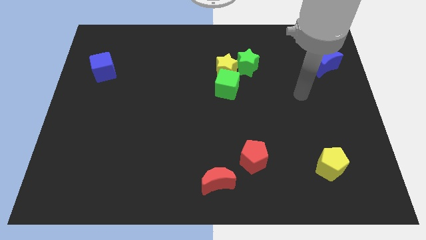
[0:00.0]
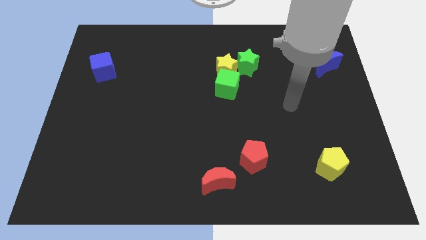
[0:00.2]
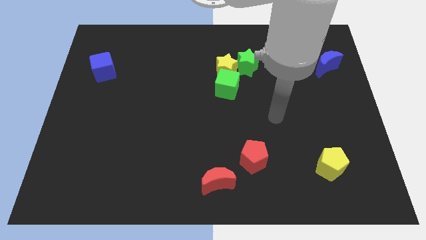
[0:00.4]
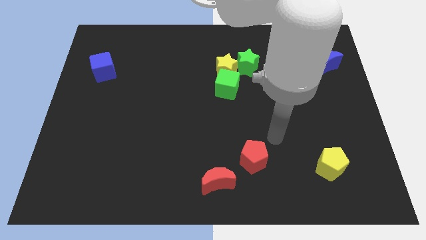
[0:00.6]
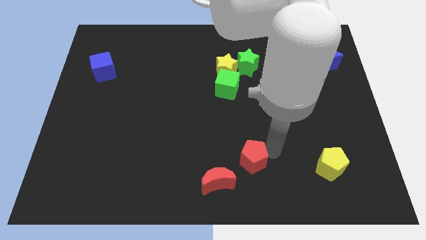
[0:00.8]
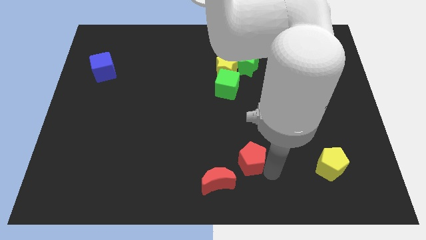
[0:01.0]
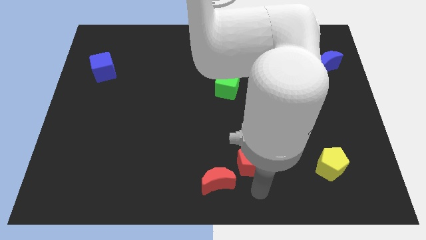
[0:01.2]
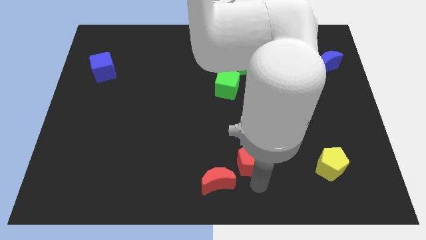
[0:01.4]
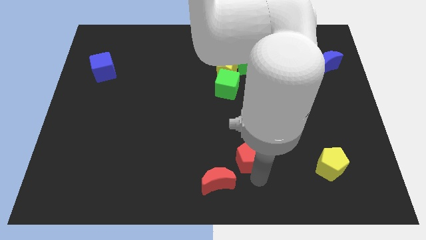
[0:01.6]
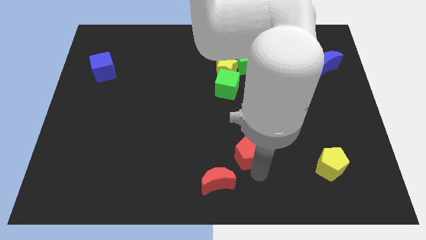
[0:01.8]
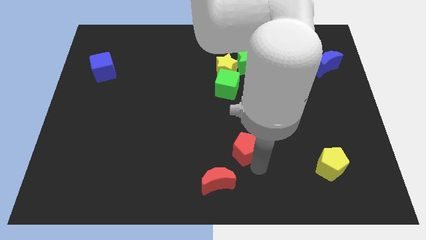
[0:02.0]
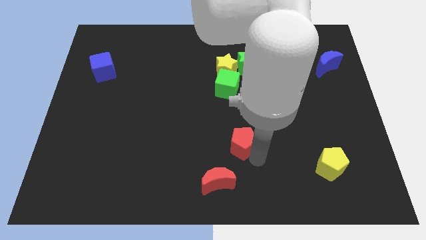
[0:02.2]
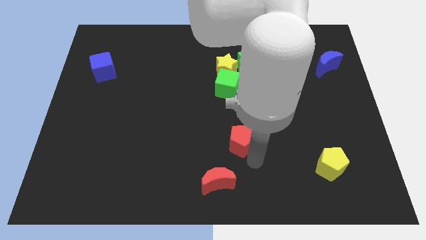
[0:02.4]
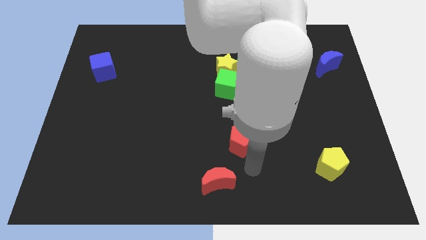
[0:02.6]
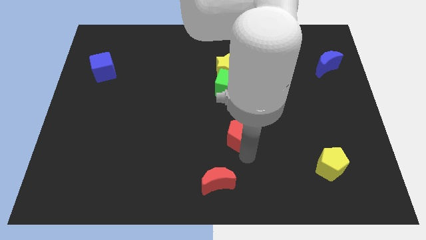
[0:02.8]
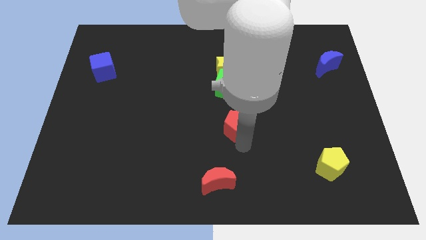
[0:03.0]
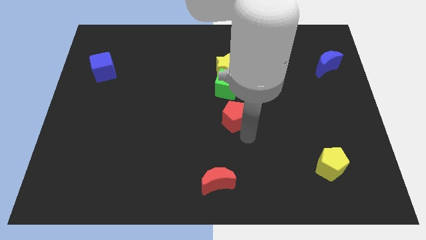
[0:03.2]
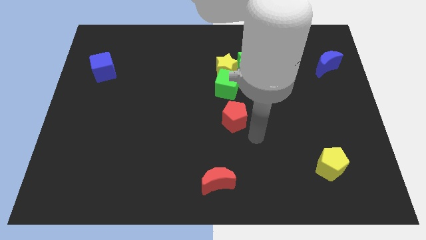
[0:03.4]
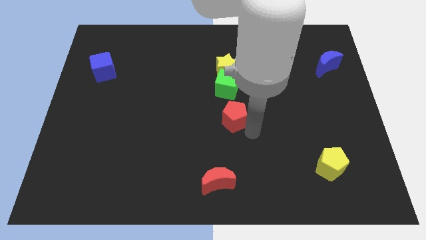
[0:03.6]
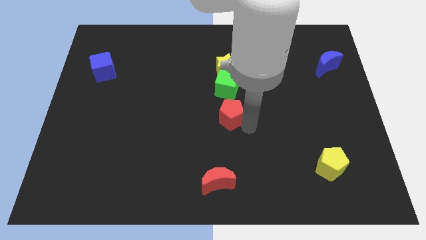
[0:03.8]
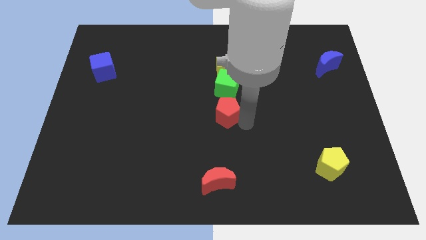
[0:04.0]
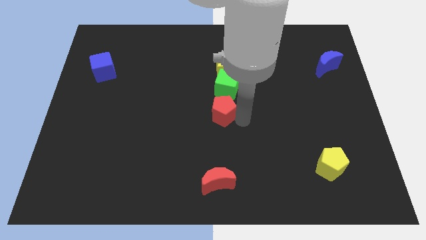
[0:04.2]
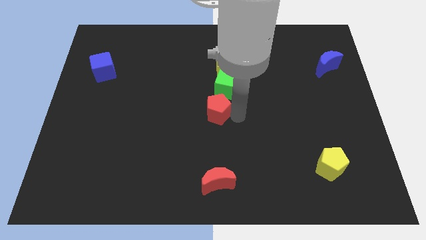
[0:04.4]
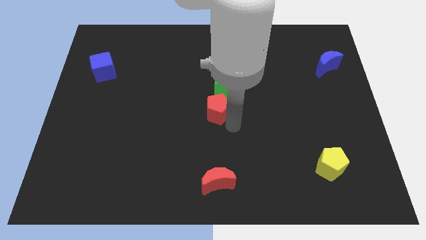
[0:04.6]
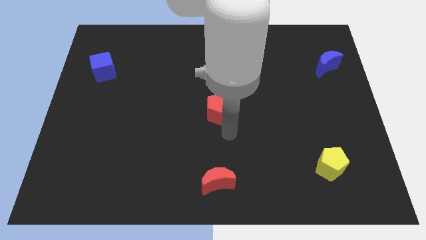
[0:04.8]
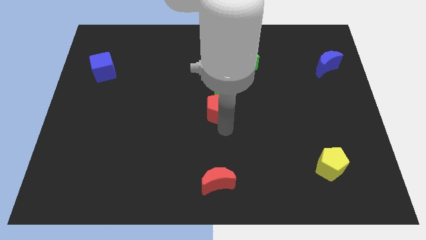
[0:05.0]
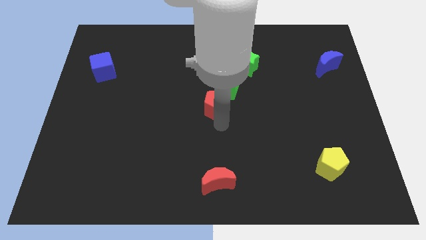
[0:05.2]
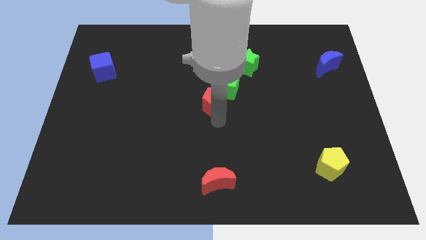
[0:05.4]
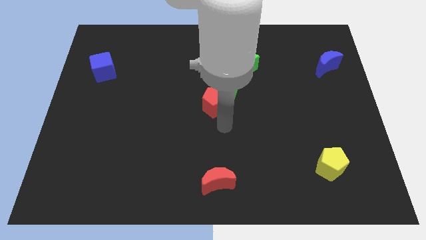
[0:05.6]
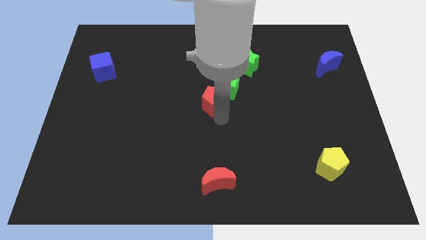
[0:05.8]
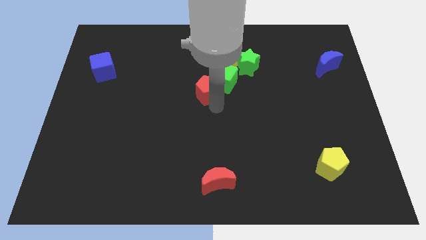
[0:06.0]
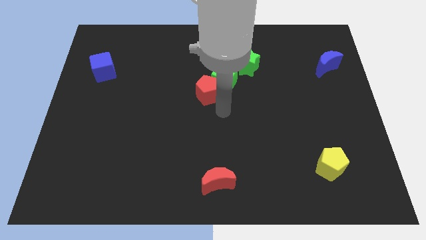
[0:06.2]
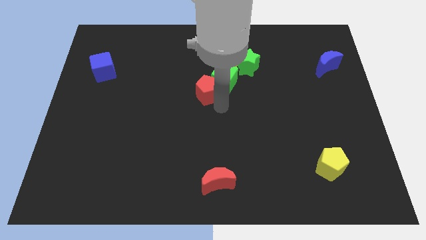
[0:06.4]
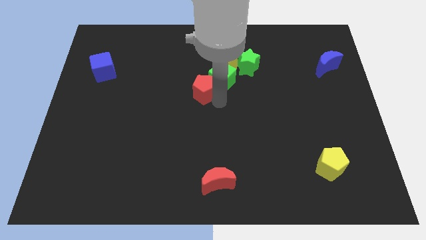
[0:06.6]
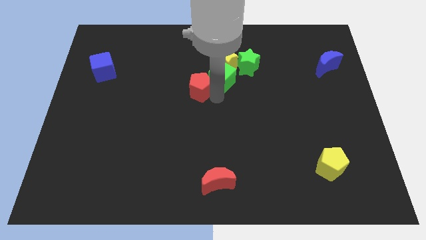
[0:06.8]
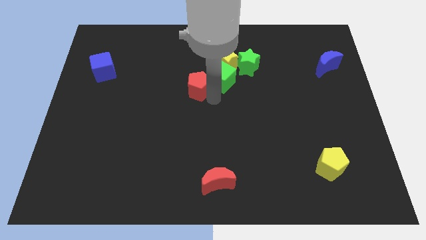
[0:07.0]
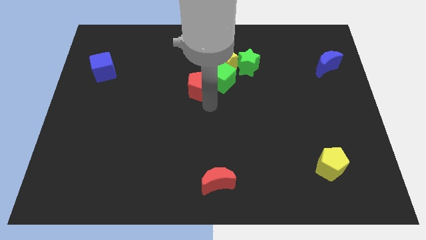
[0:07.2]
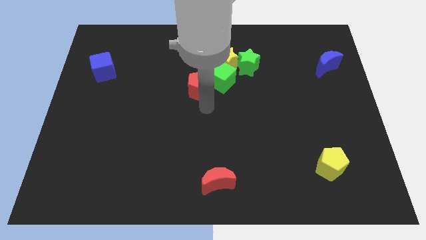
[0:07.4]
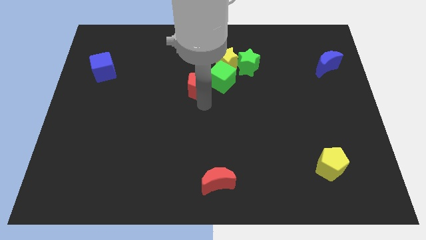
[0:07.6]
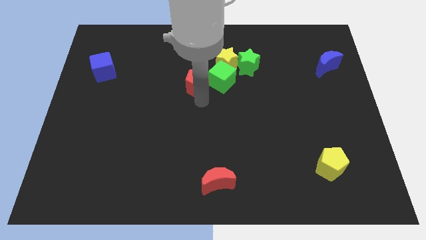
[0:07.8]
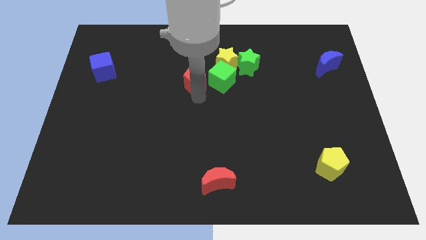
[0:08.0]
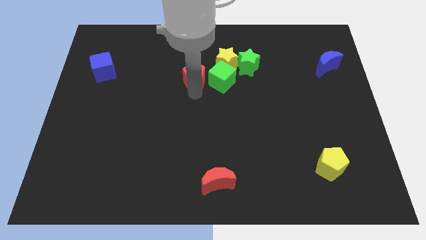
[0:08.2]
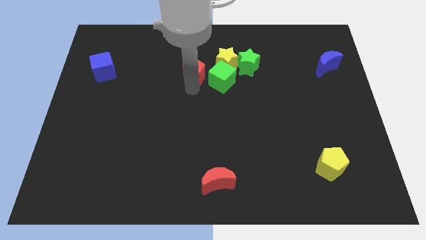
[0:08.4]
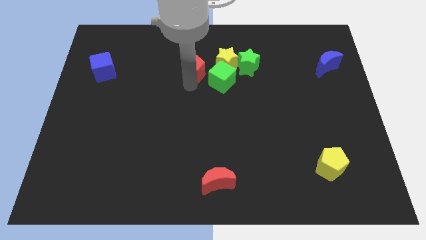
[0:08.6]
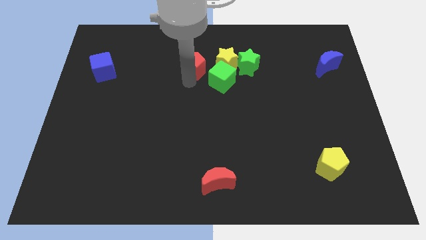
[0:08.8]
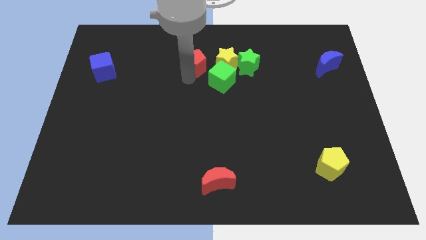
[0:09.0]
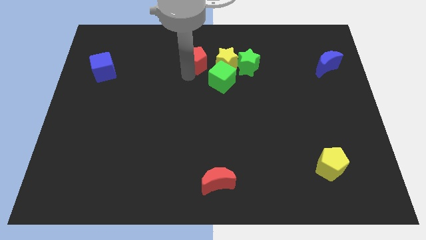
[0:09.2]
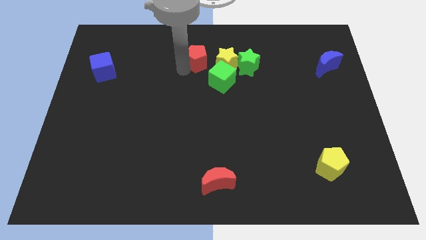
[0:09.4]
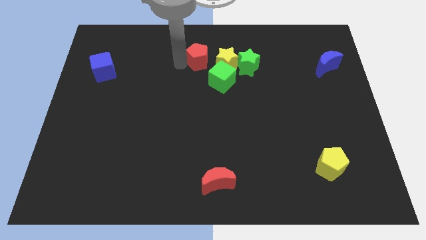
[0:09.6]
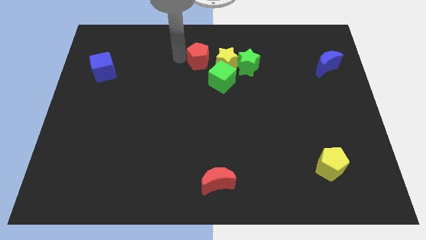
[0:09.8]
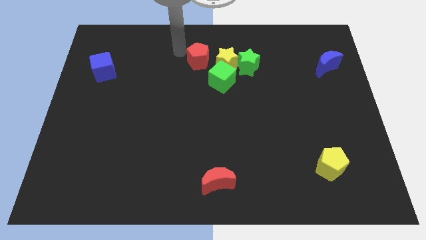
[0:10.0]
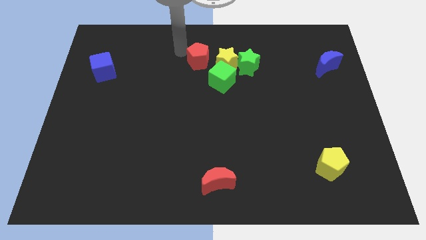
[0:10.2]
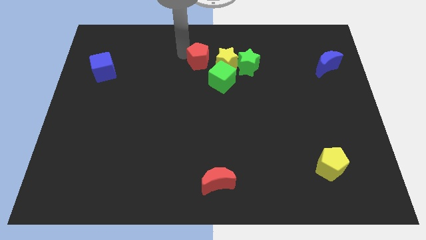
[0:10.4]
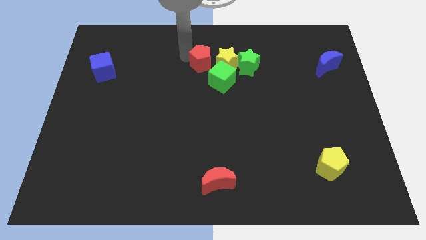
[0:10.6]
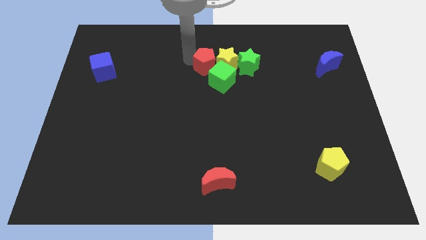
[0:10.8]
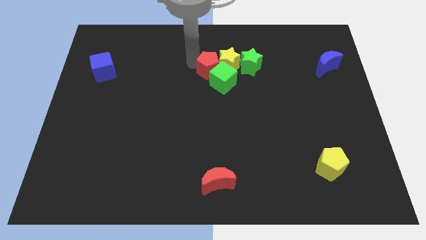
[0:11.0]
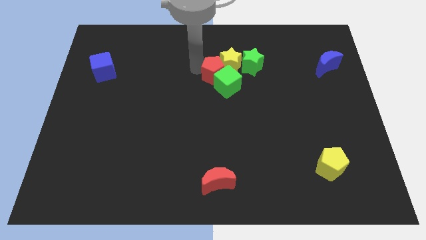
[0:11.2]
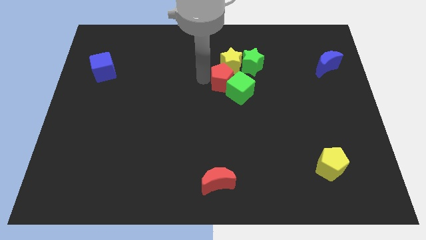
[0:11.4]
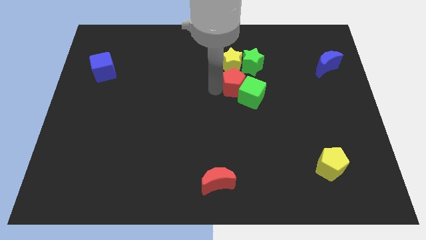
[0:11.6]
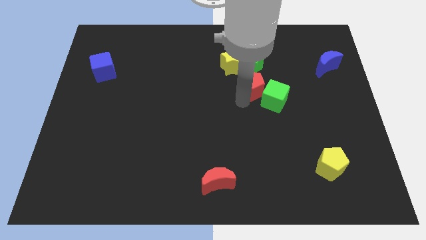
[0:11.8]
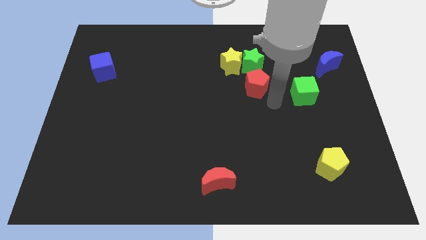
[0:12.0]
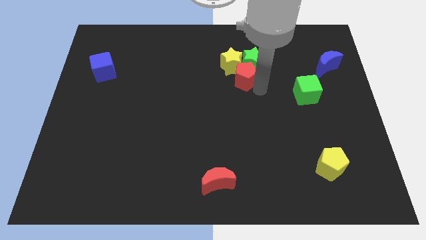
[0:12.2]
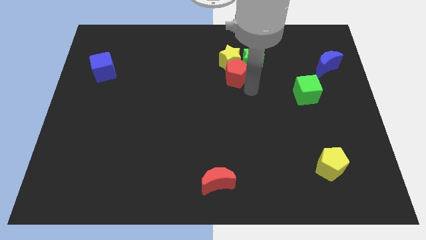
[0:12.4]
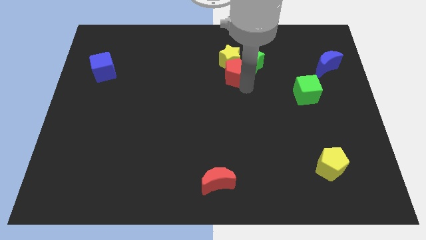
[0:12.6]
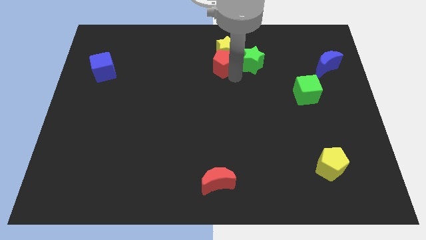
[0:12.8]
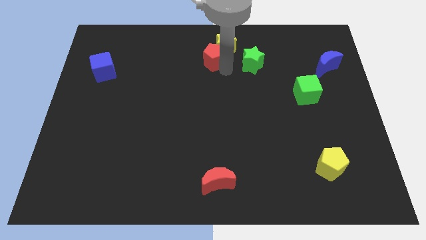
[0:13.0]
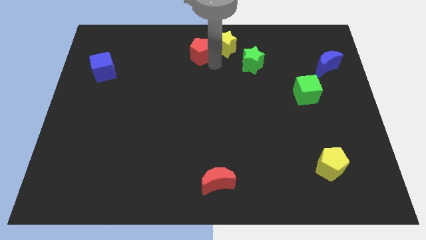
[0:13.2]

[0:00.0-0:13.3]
move the red pentagon to the top
